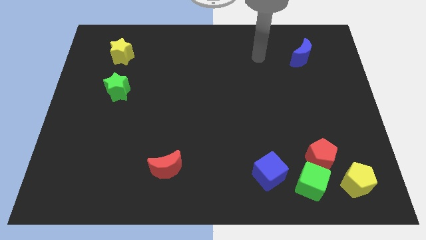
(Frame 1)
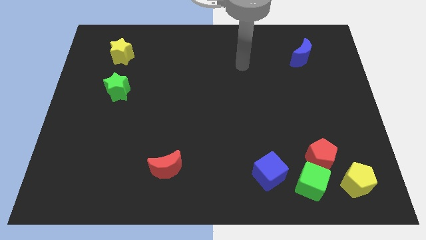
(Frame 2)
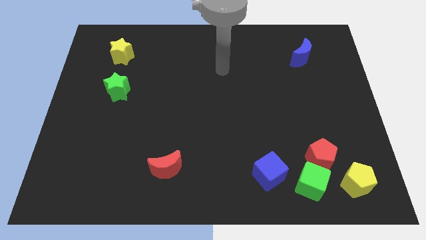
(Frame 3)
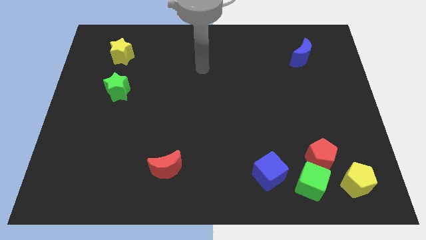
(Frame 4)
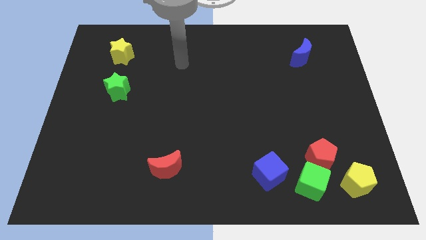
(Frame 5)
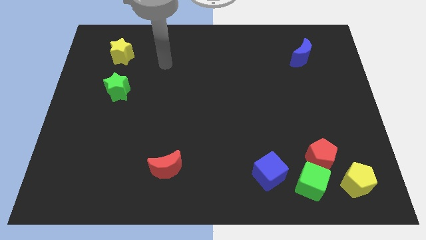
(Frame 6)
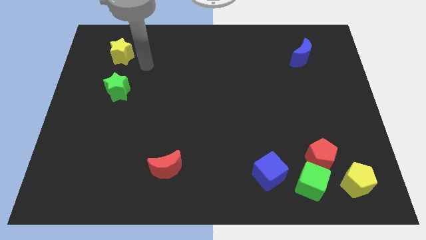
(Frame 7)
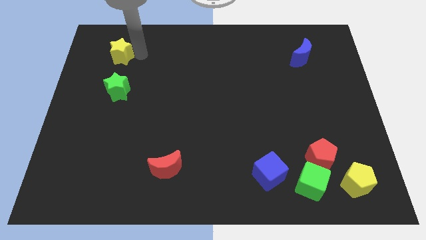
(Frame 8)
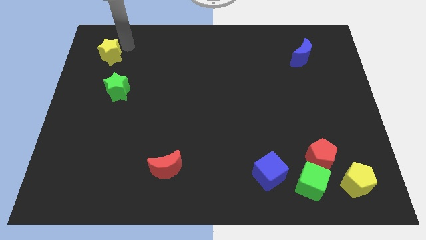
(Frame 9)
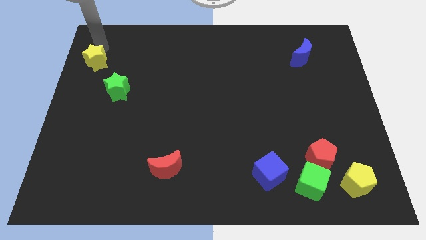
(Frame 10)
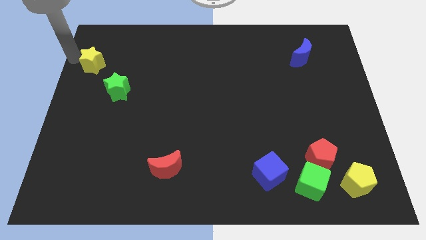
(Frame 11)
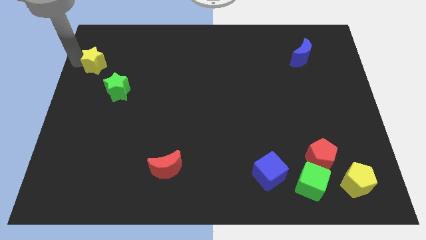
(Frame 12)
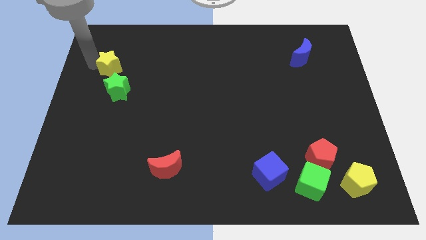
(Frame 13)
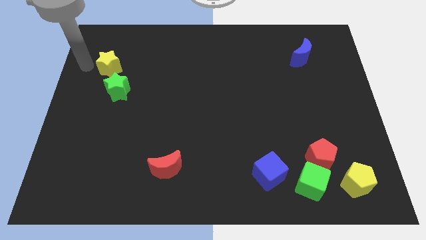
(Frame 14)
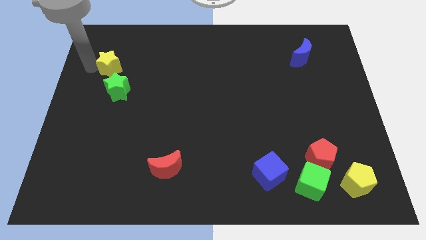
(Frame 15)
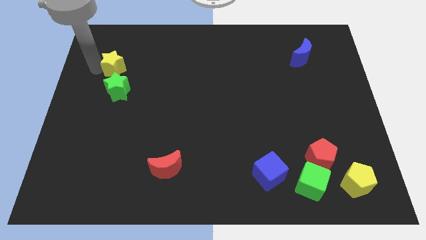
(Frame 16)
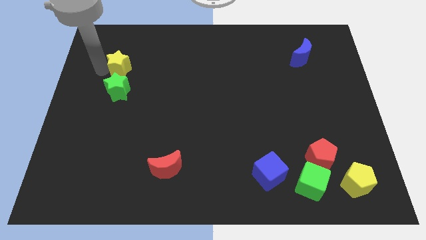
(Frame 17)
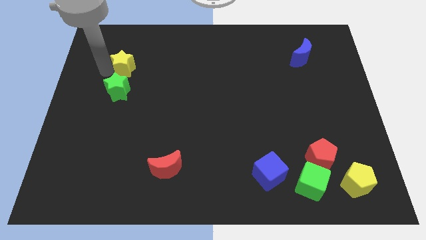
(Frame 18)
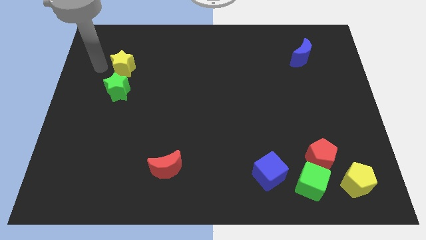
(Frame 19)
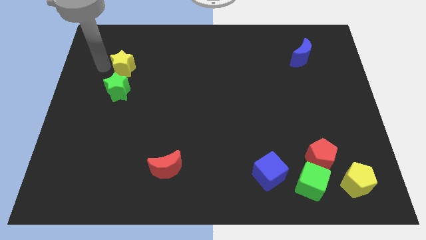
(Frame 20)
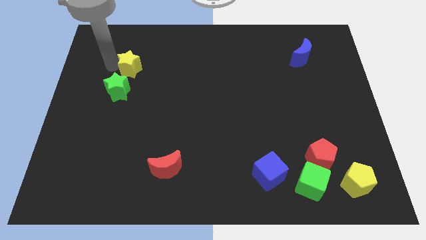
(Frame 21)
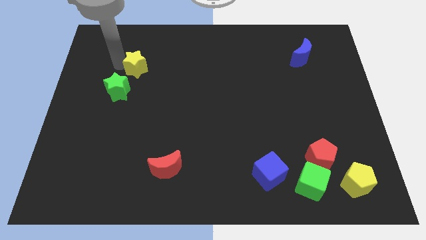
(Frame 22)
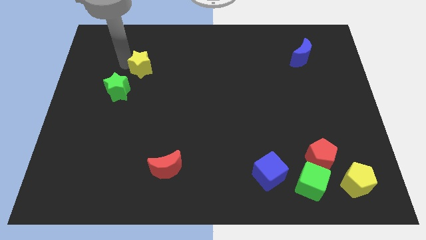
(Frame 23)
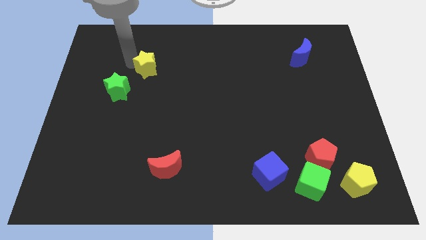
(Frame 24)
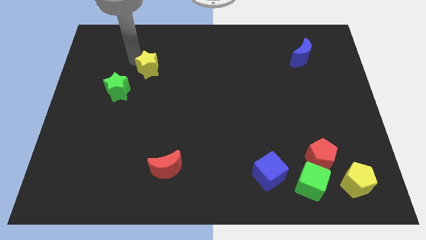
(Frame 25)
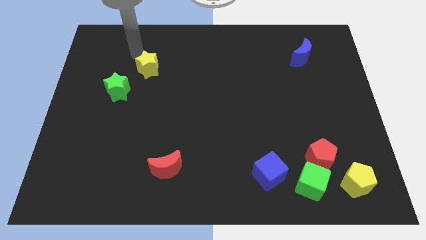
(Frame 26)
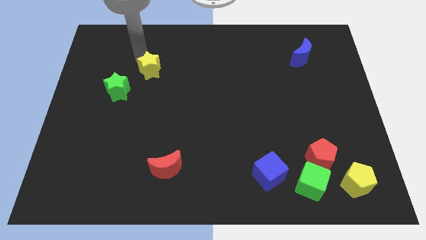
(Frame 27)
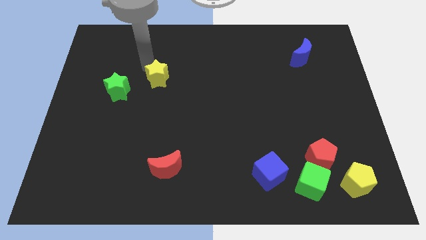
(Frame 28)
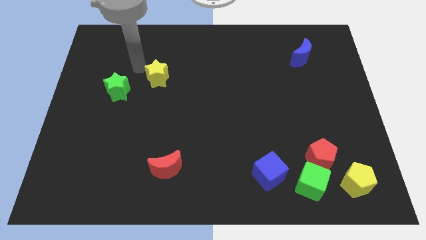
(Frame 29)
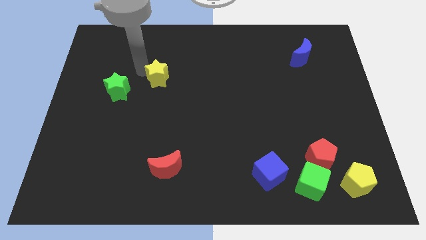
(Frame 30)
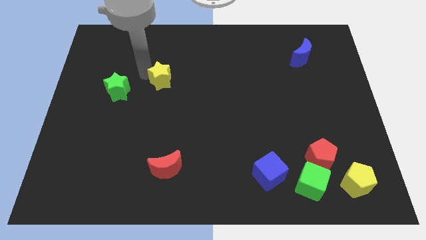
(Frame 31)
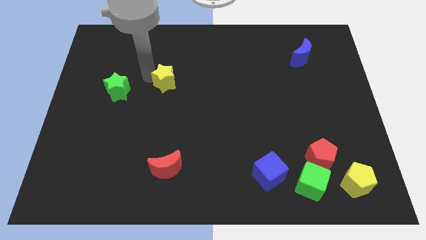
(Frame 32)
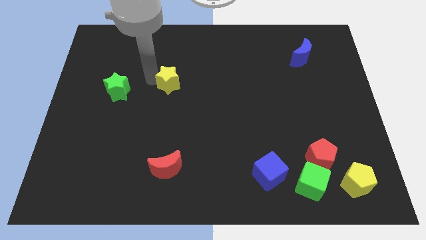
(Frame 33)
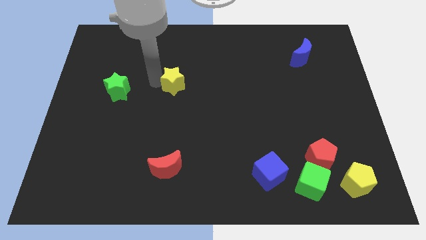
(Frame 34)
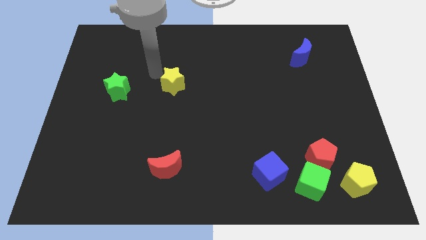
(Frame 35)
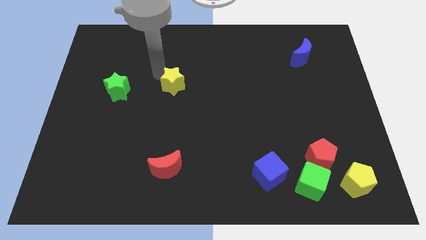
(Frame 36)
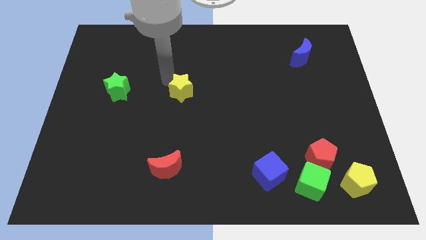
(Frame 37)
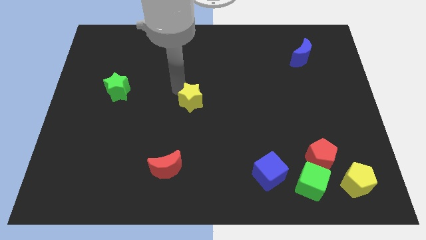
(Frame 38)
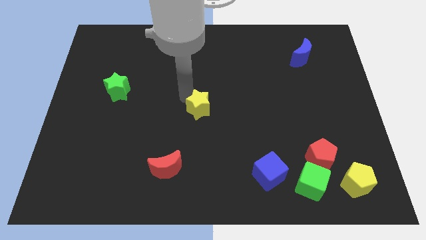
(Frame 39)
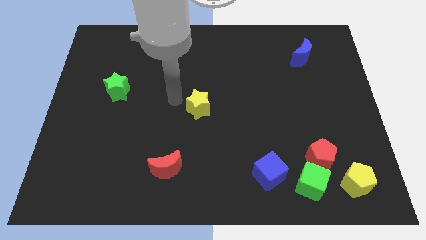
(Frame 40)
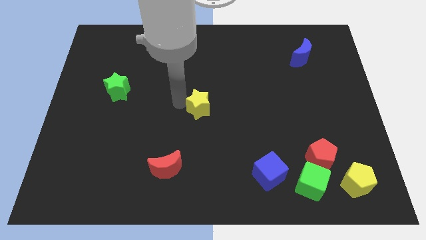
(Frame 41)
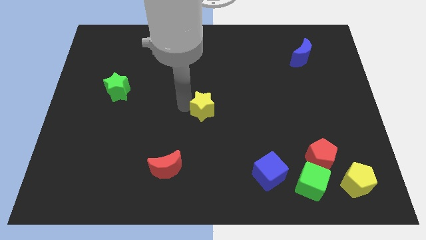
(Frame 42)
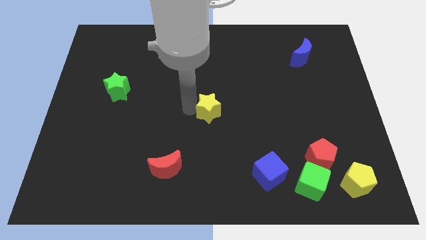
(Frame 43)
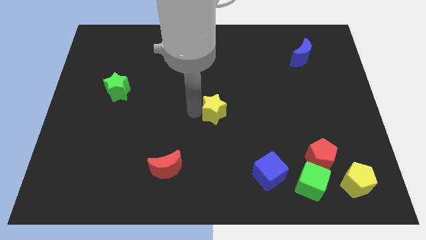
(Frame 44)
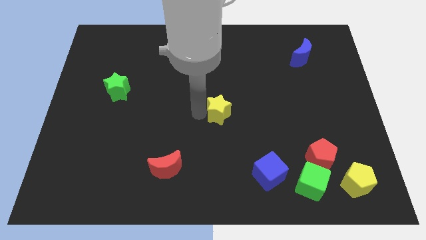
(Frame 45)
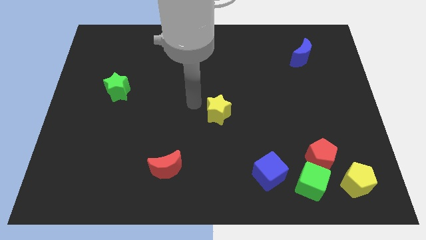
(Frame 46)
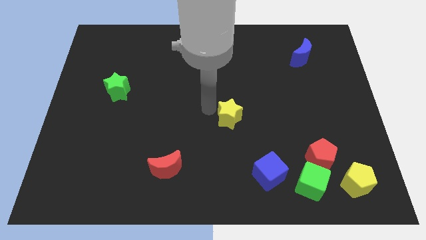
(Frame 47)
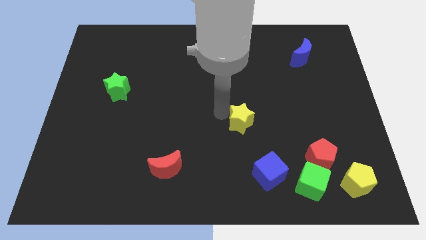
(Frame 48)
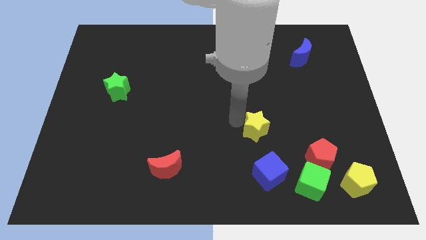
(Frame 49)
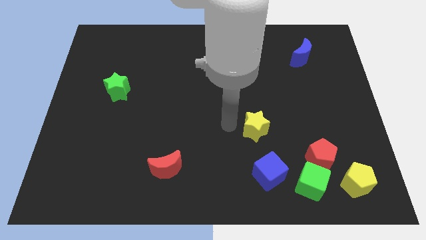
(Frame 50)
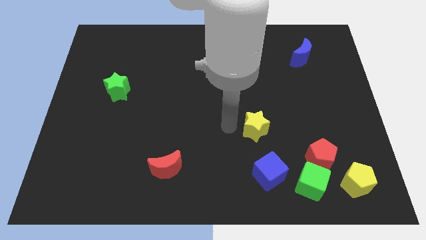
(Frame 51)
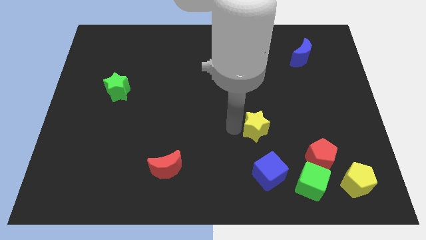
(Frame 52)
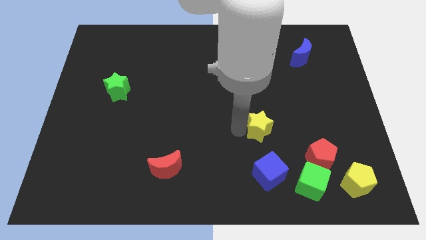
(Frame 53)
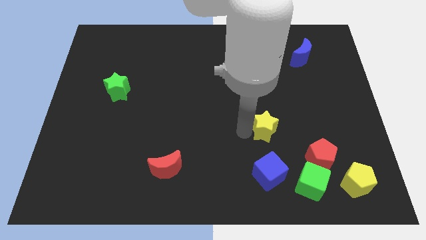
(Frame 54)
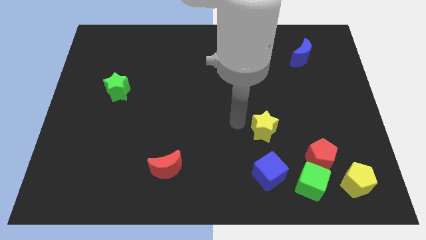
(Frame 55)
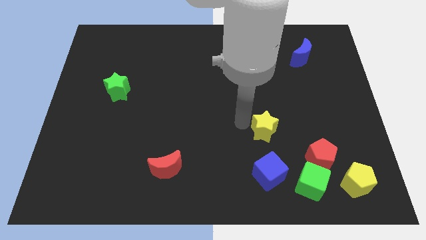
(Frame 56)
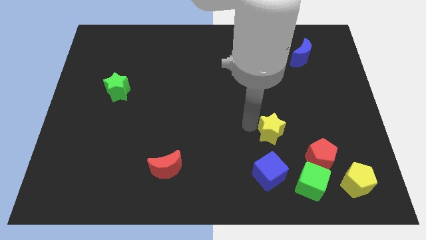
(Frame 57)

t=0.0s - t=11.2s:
put the yellow star to the top left side of the red pentagon

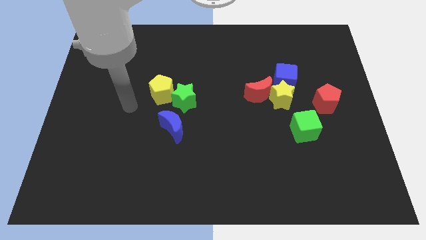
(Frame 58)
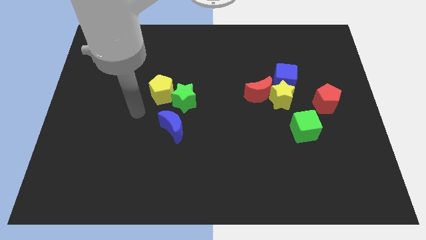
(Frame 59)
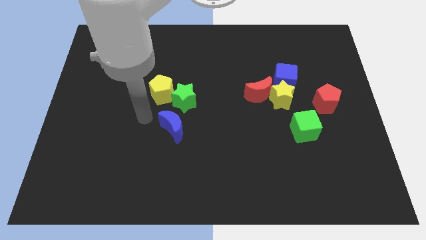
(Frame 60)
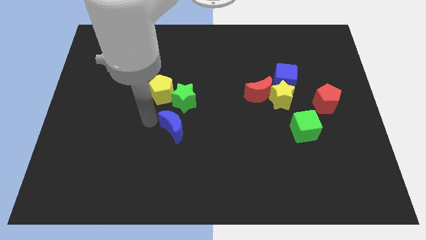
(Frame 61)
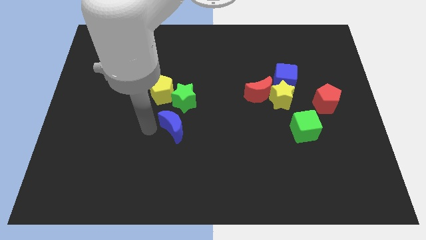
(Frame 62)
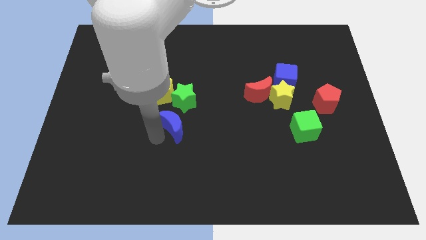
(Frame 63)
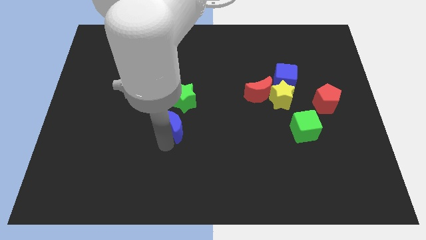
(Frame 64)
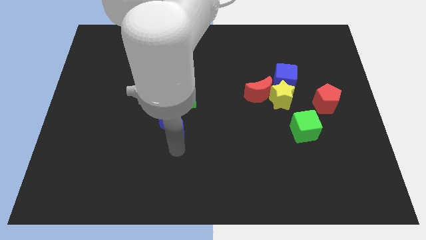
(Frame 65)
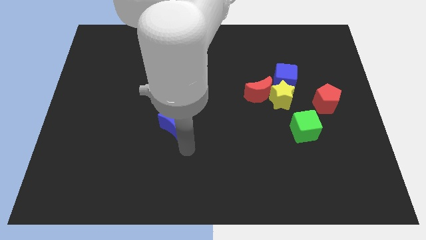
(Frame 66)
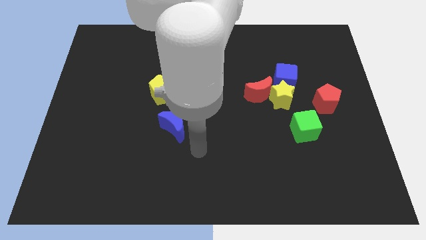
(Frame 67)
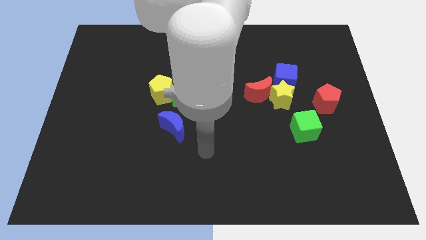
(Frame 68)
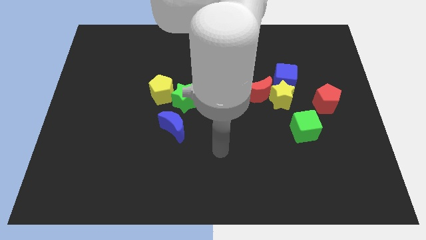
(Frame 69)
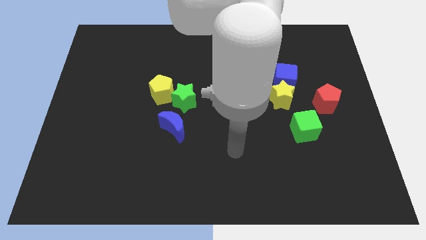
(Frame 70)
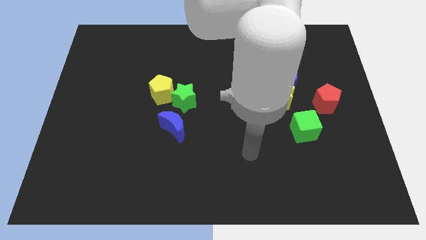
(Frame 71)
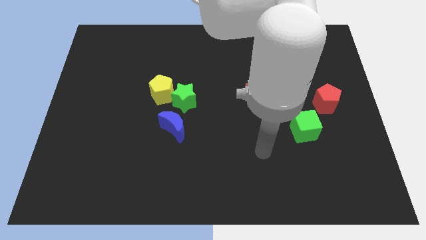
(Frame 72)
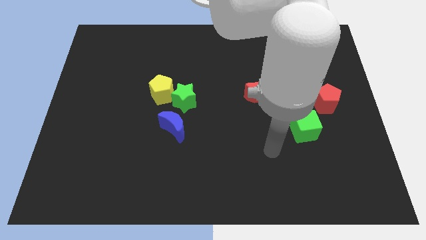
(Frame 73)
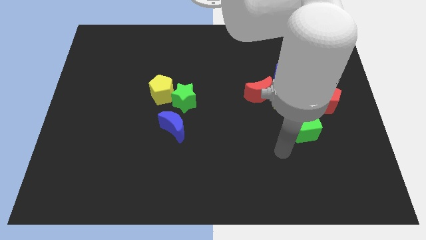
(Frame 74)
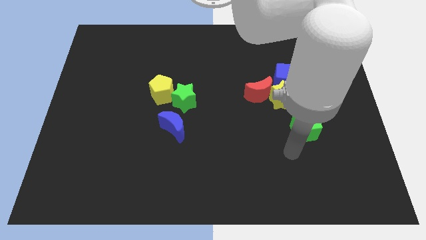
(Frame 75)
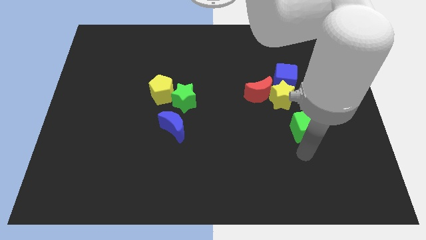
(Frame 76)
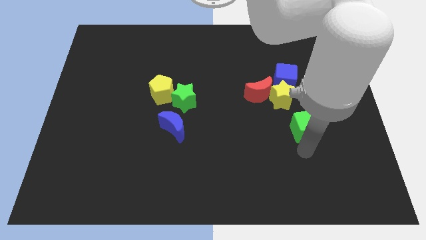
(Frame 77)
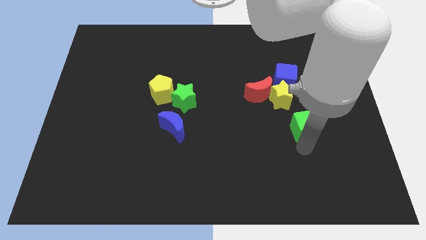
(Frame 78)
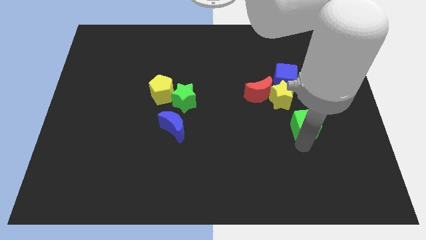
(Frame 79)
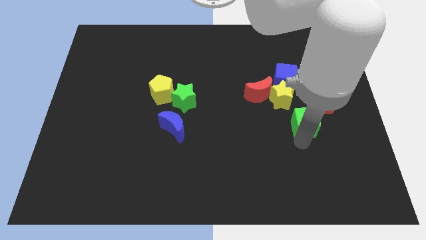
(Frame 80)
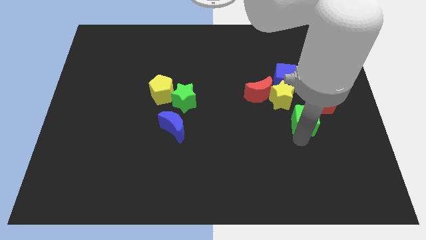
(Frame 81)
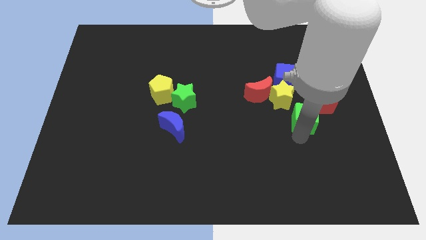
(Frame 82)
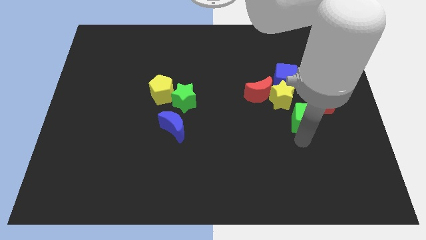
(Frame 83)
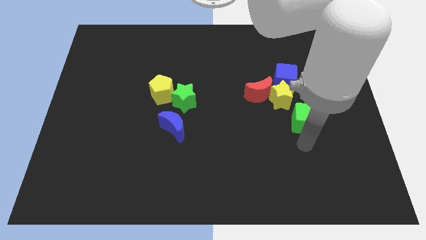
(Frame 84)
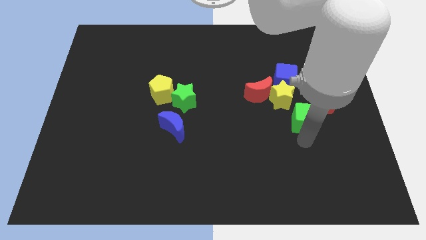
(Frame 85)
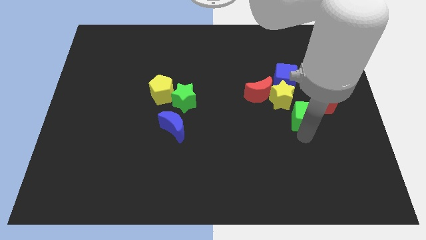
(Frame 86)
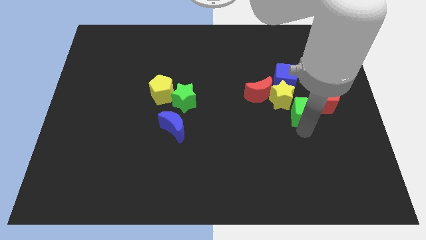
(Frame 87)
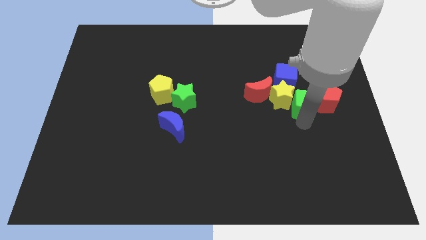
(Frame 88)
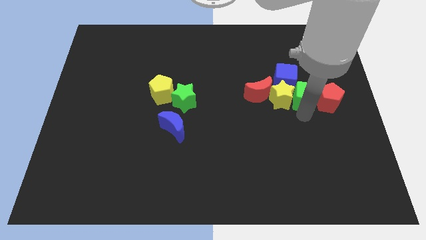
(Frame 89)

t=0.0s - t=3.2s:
slide the green cube to the top right of the yellow star
